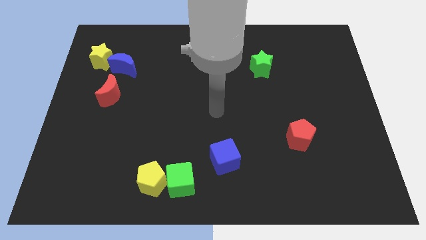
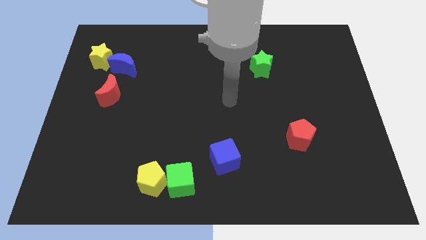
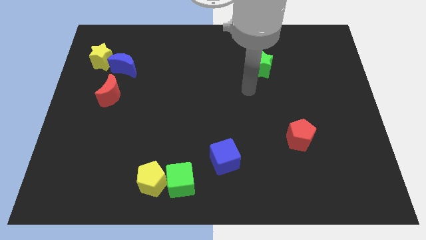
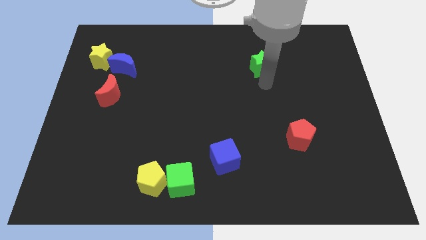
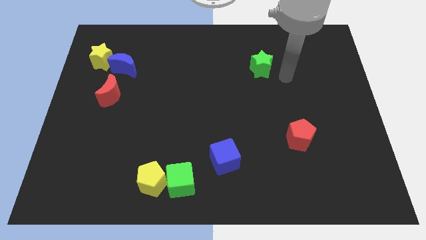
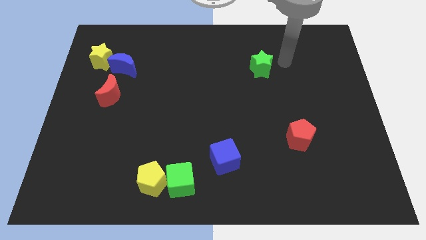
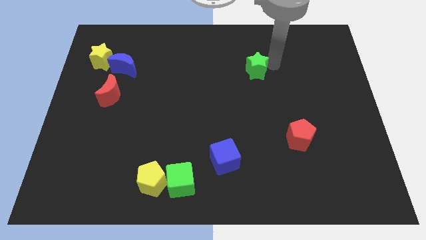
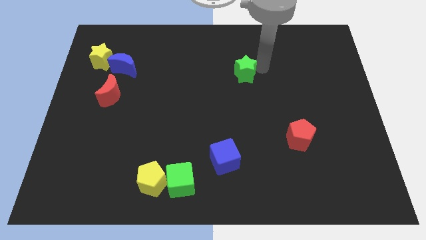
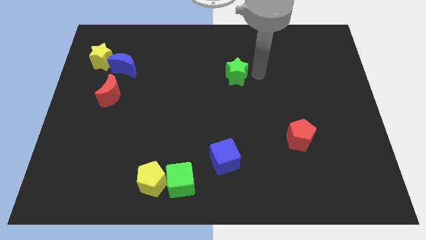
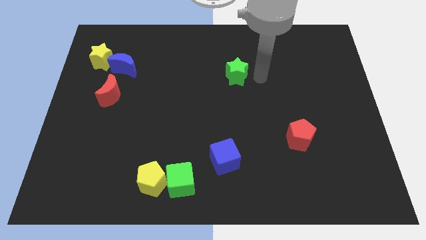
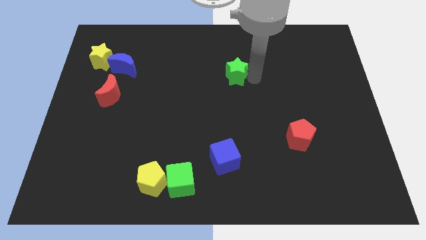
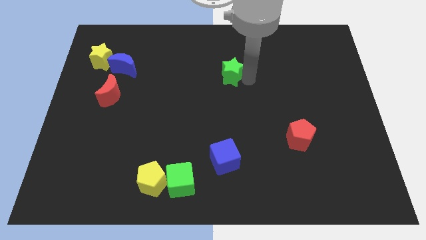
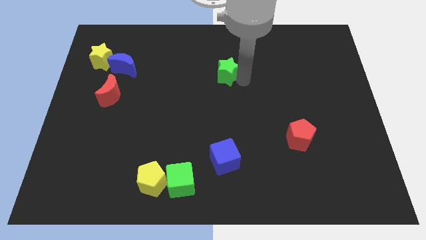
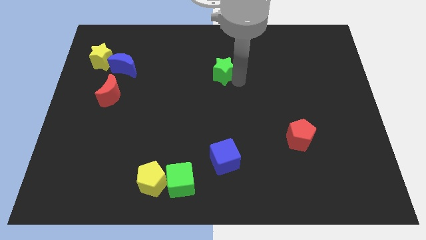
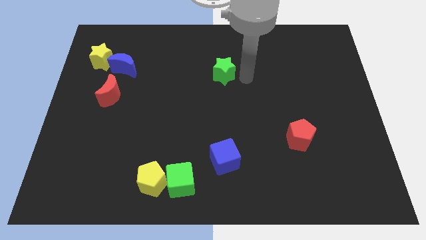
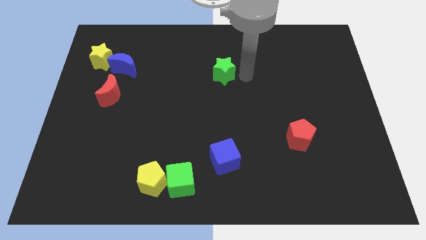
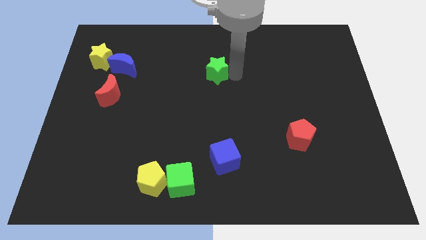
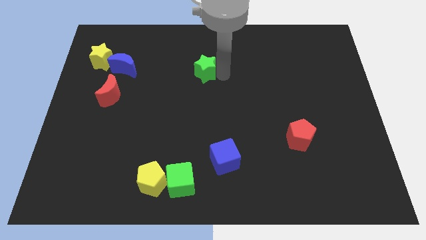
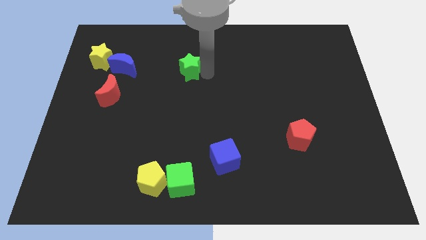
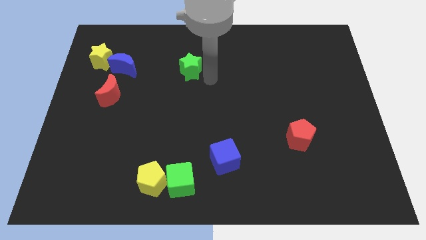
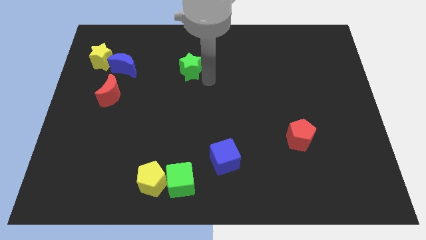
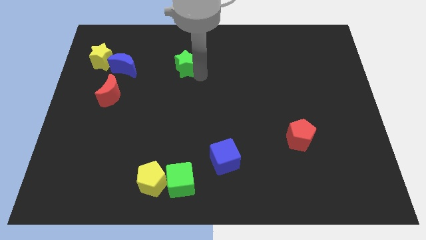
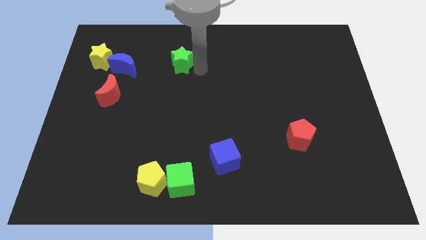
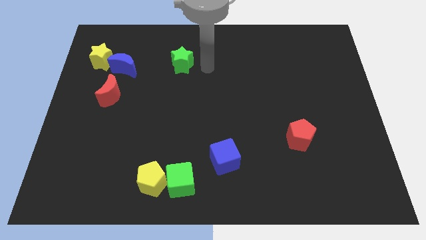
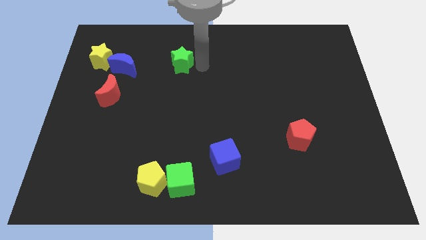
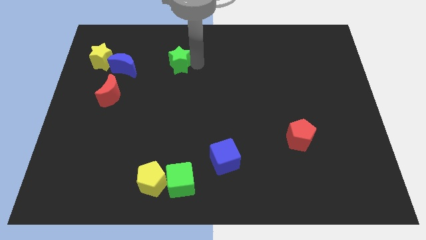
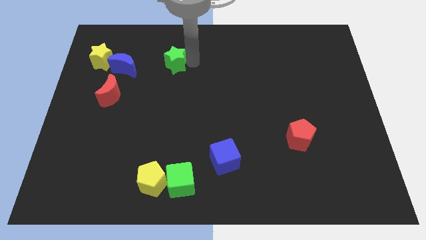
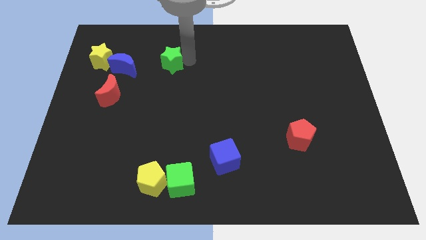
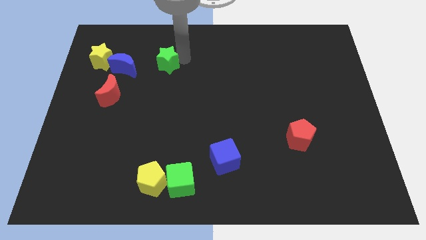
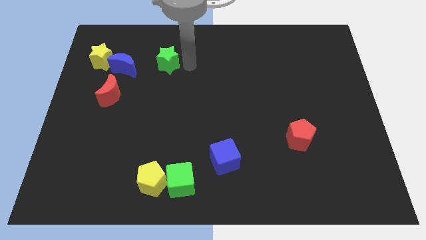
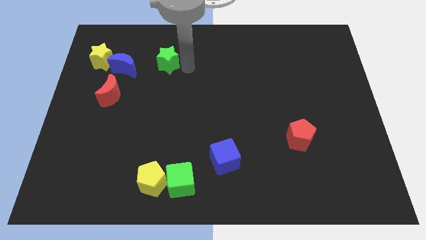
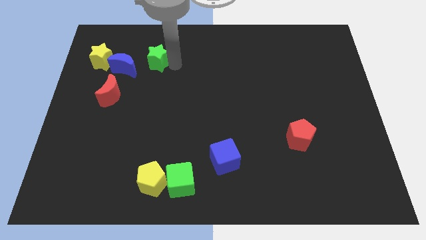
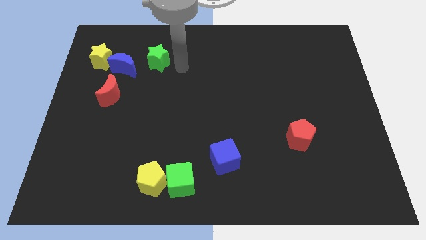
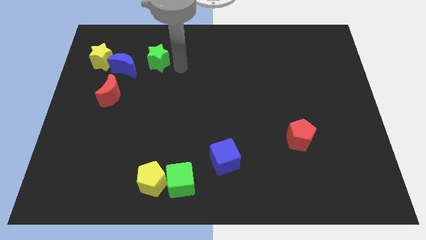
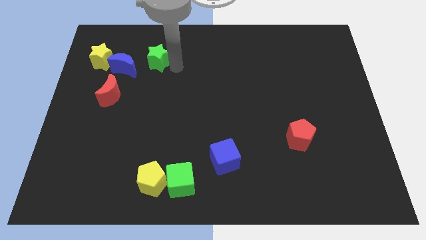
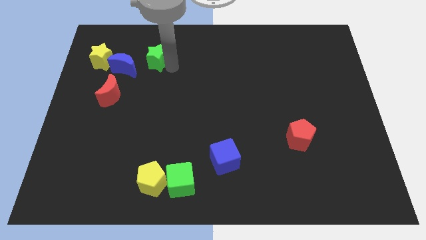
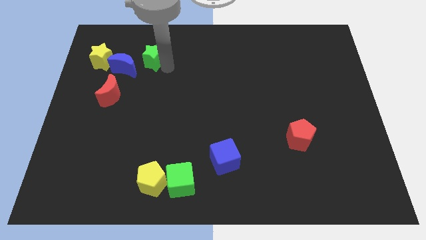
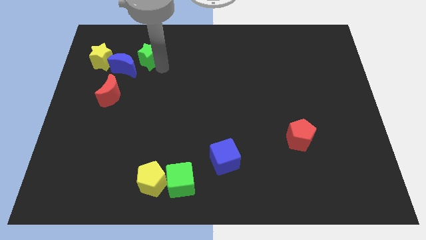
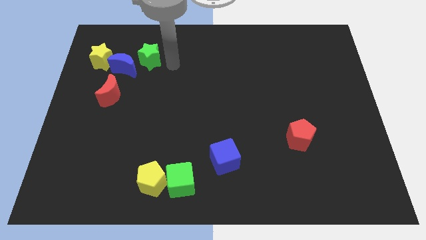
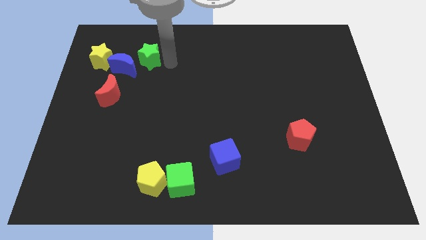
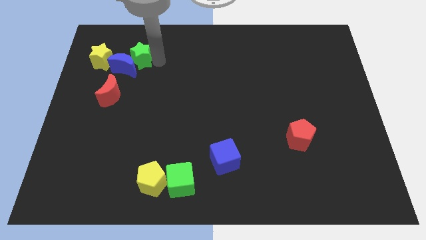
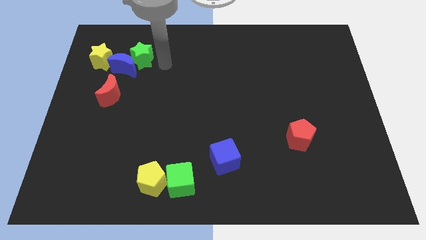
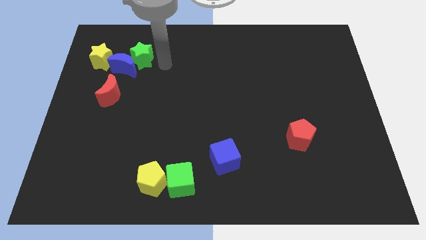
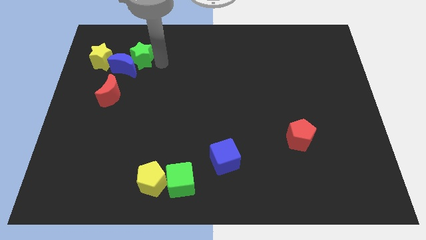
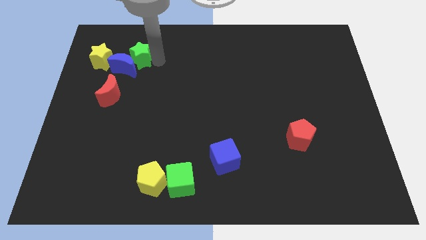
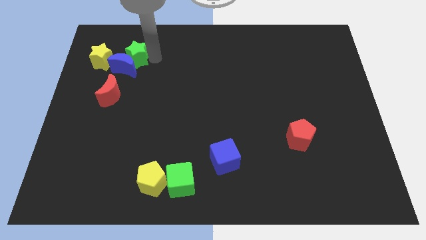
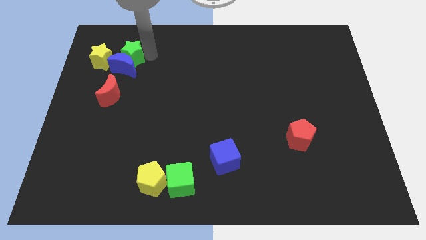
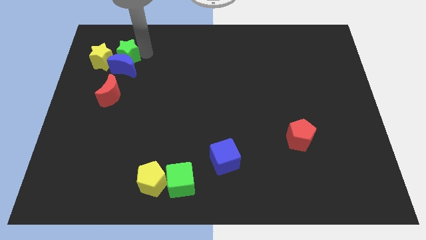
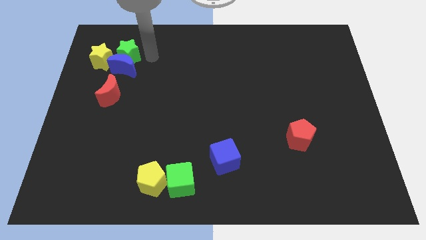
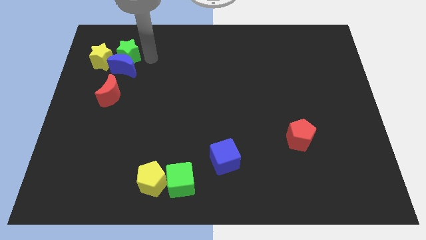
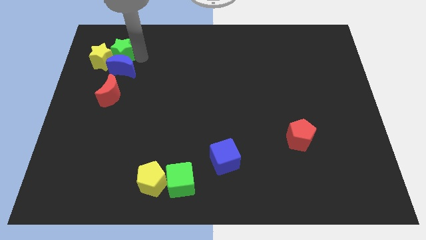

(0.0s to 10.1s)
put the green star to the yellow star

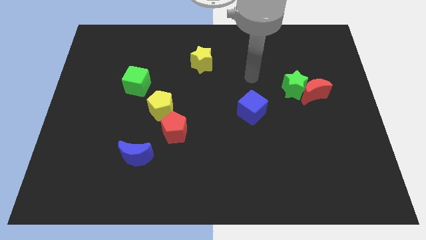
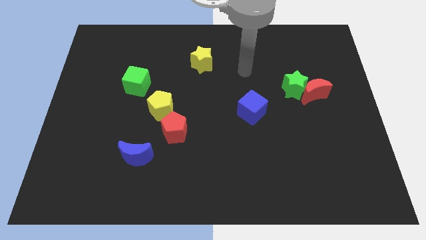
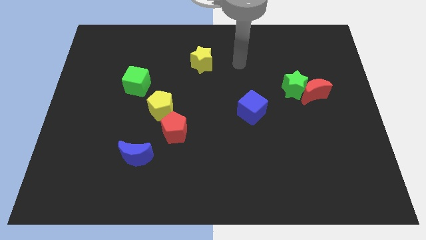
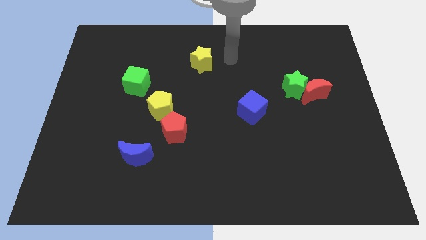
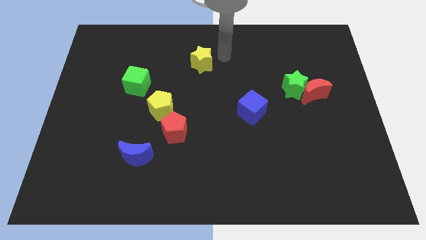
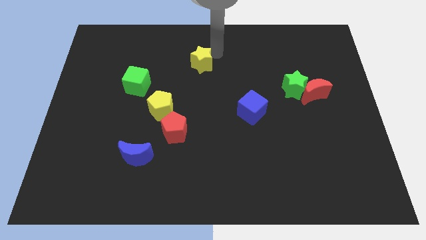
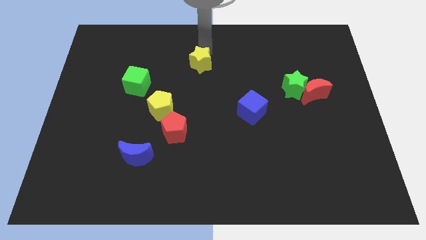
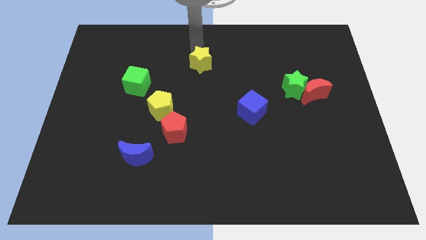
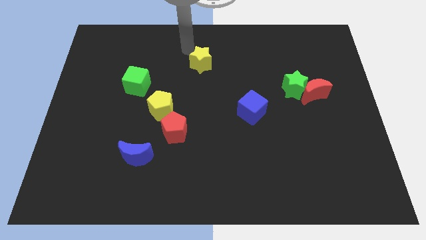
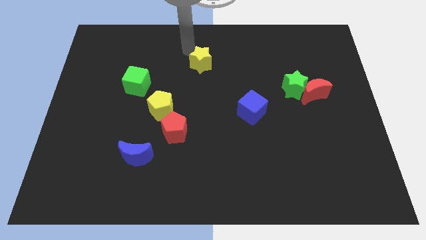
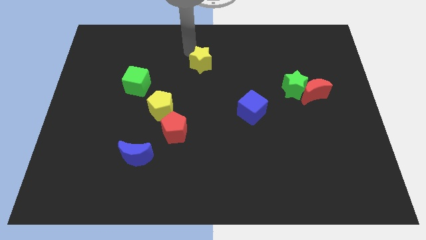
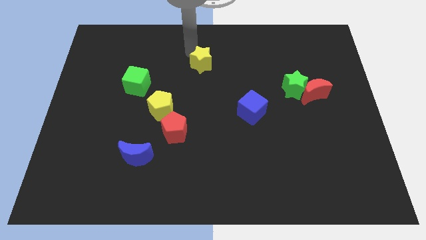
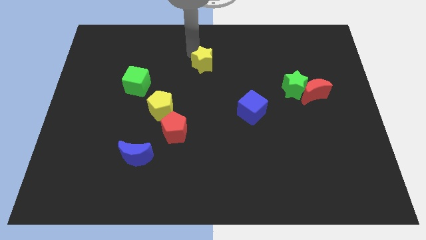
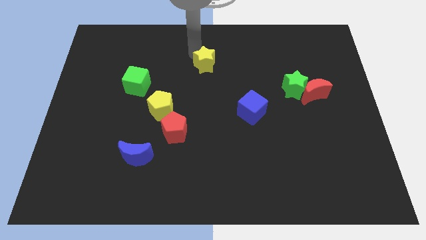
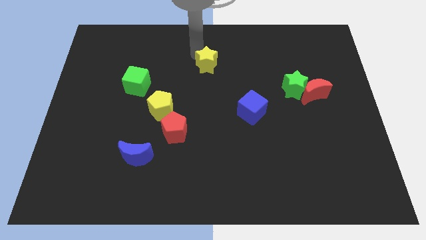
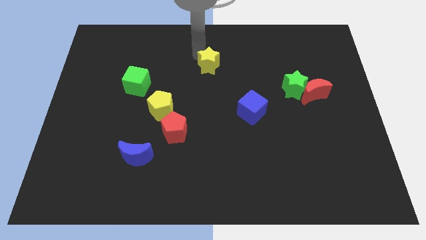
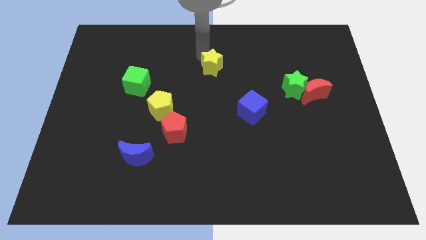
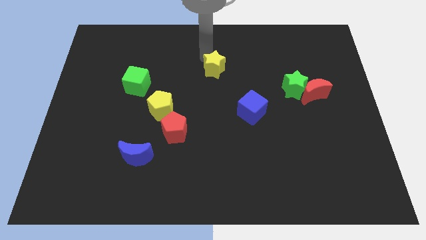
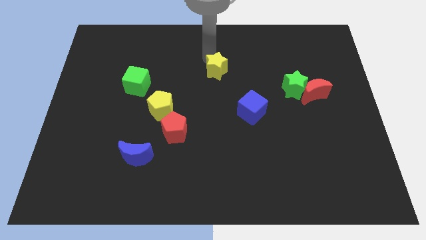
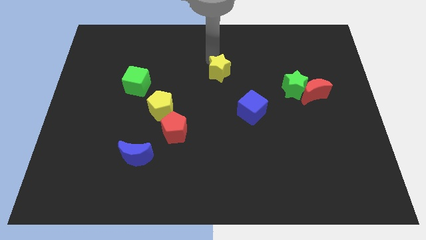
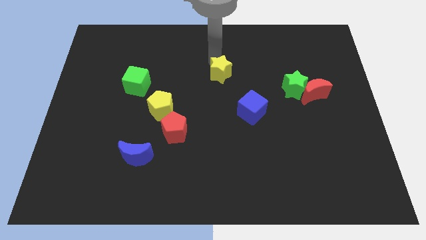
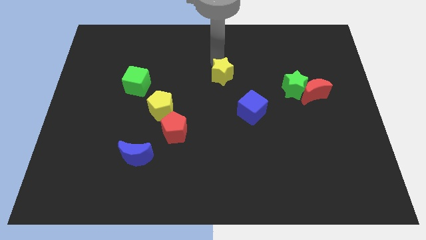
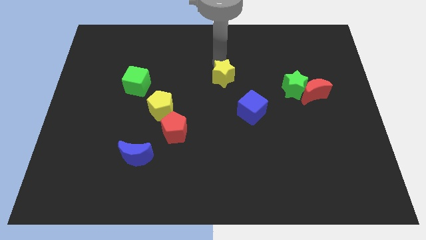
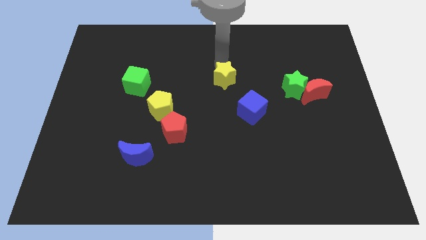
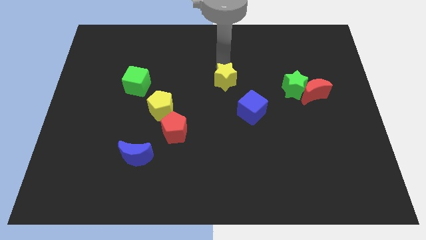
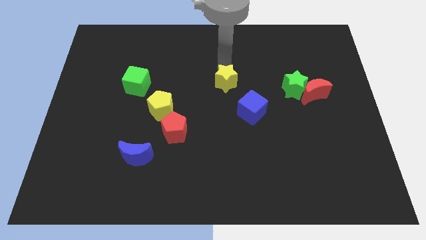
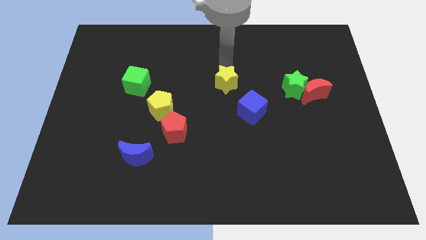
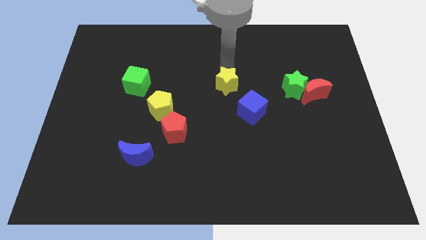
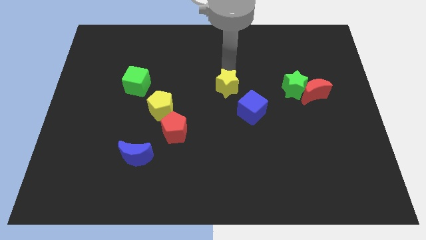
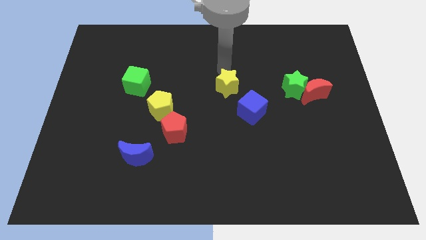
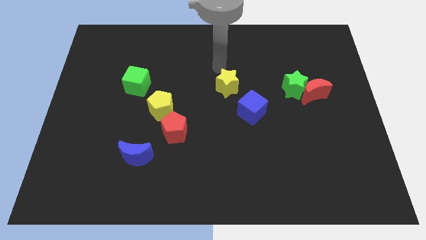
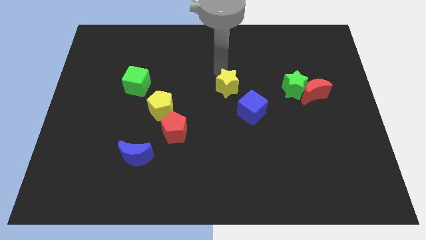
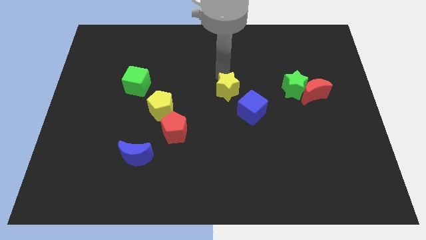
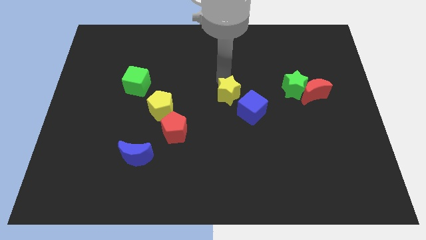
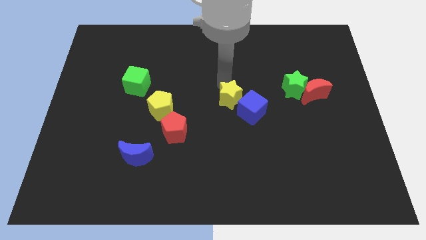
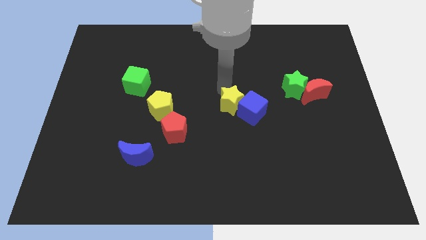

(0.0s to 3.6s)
move the yellow star next to the blue cube
